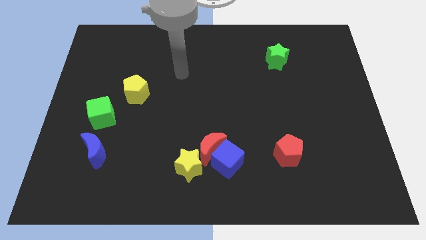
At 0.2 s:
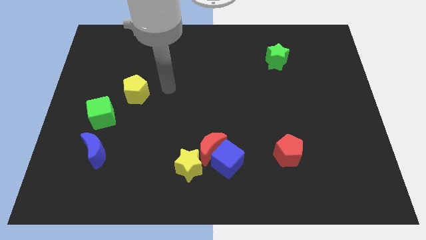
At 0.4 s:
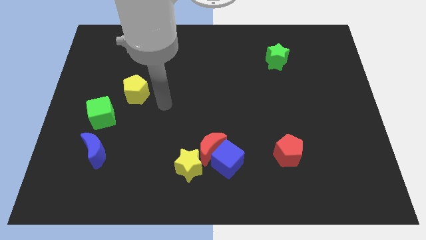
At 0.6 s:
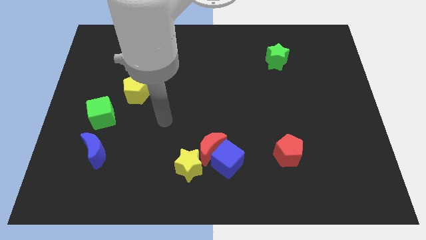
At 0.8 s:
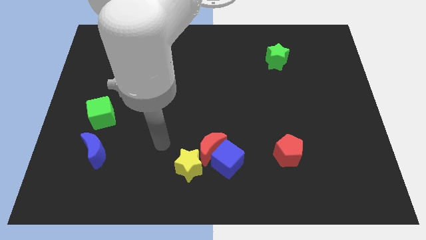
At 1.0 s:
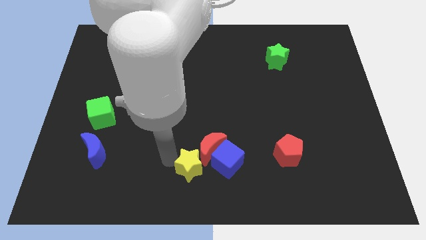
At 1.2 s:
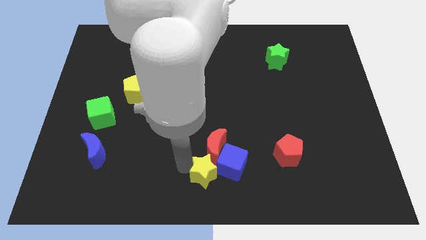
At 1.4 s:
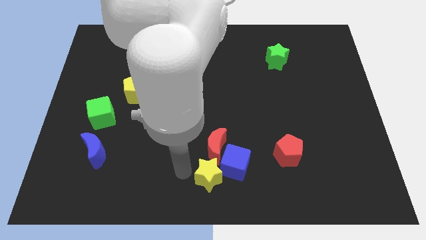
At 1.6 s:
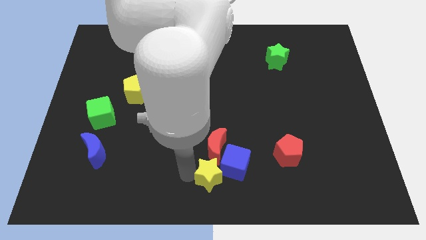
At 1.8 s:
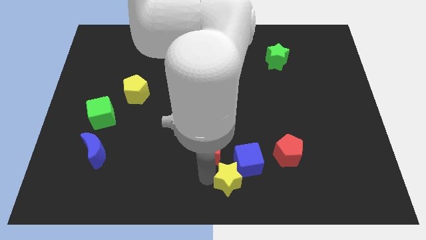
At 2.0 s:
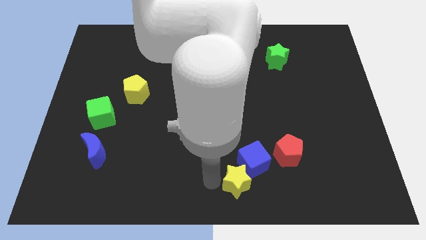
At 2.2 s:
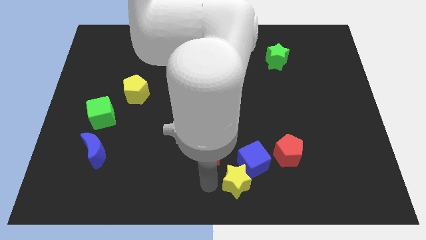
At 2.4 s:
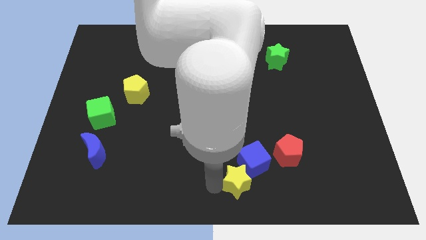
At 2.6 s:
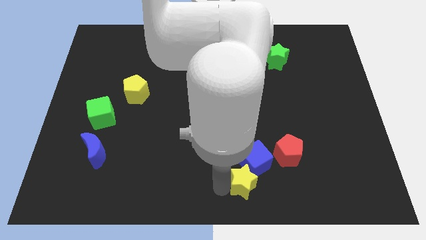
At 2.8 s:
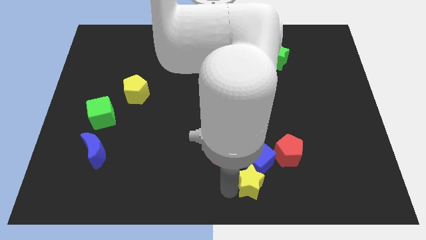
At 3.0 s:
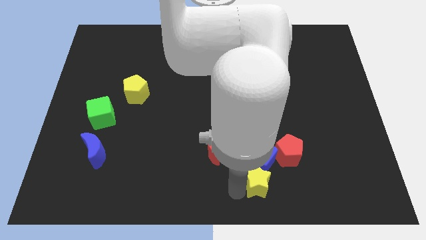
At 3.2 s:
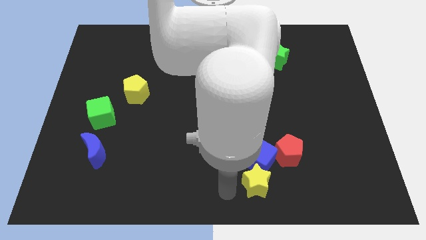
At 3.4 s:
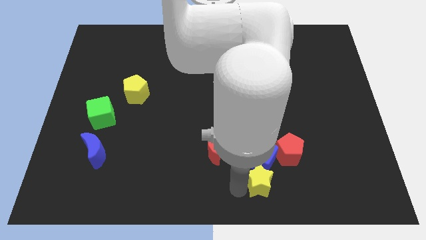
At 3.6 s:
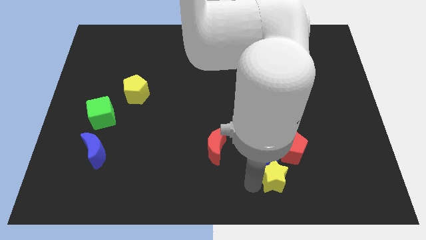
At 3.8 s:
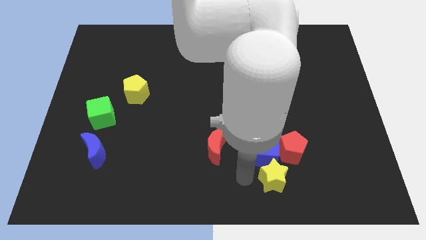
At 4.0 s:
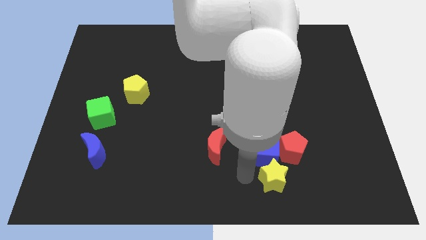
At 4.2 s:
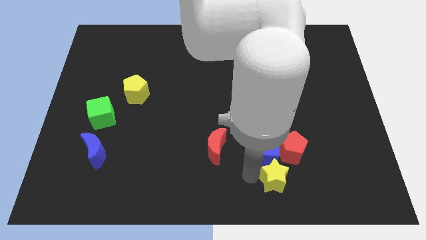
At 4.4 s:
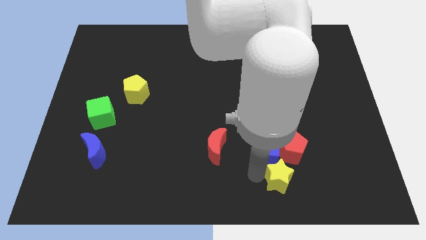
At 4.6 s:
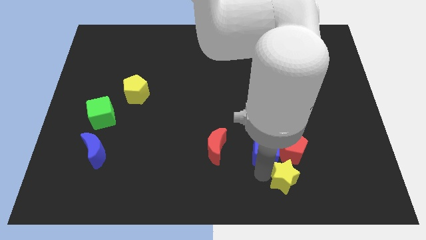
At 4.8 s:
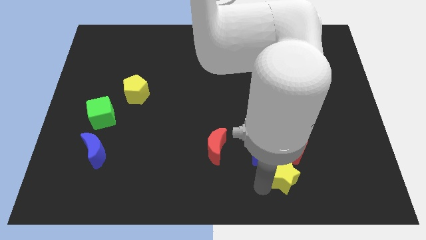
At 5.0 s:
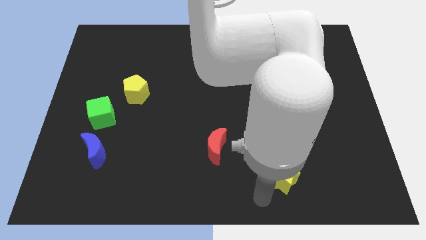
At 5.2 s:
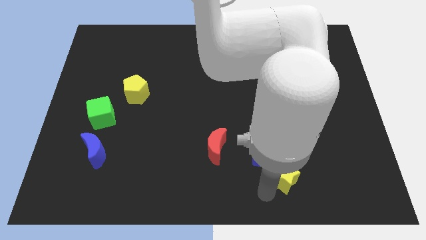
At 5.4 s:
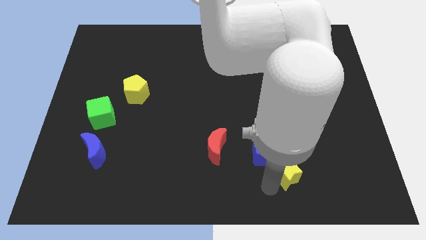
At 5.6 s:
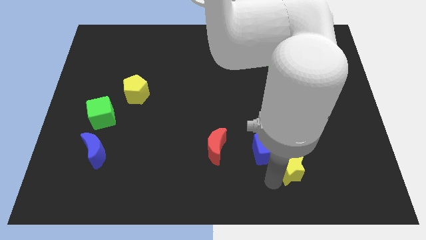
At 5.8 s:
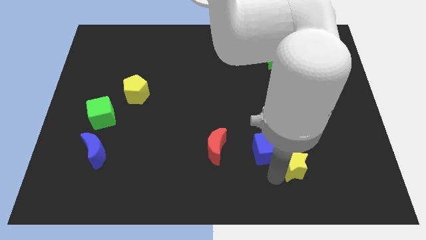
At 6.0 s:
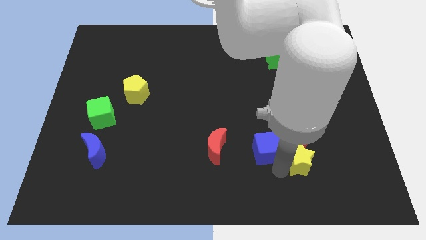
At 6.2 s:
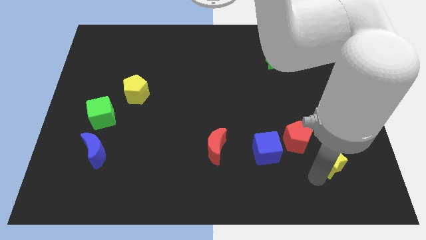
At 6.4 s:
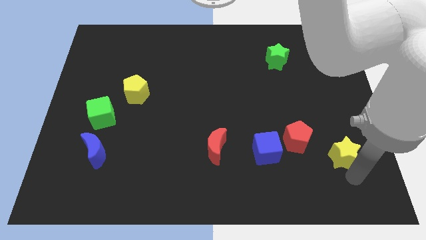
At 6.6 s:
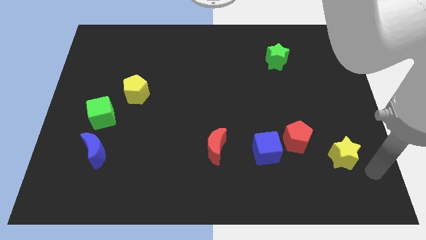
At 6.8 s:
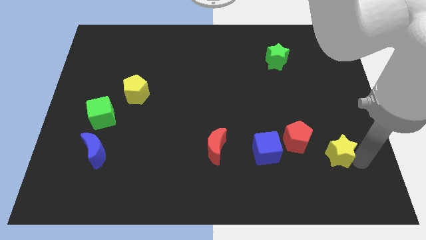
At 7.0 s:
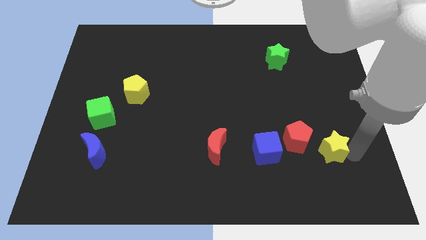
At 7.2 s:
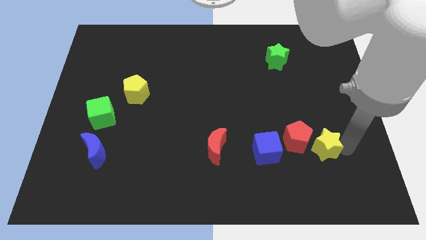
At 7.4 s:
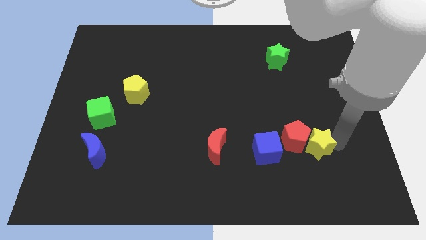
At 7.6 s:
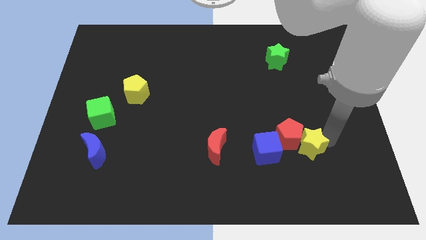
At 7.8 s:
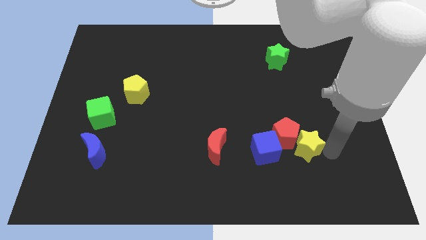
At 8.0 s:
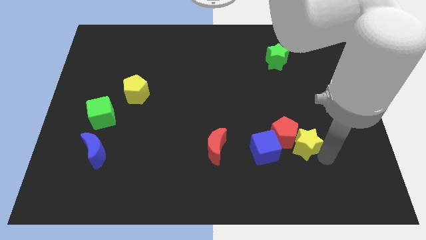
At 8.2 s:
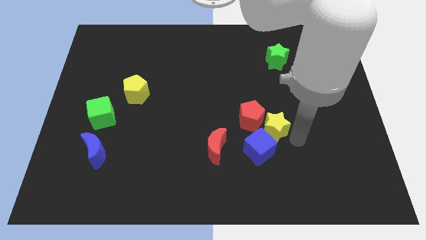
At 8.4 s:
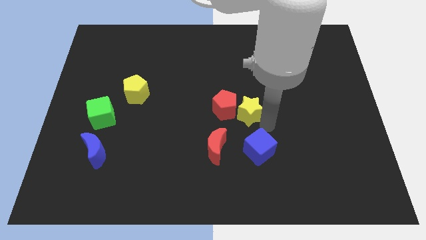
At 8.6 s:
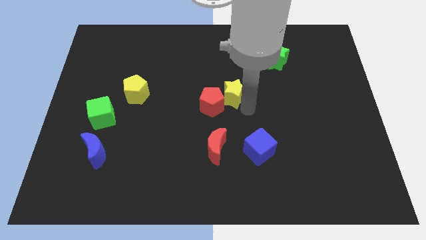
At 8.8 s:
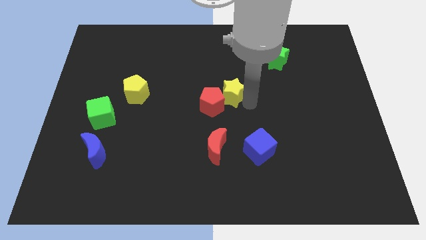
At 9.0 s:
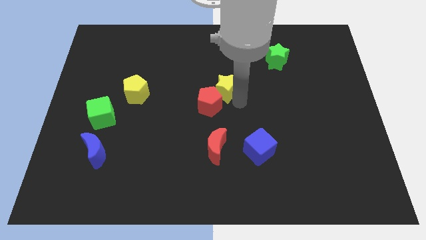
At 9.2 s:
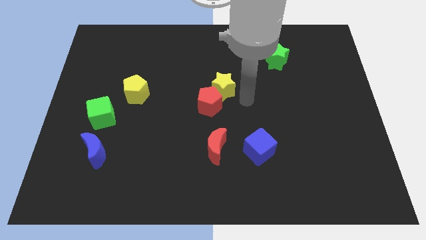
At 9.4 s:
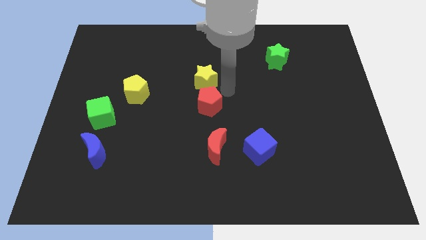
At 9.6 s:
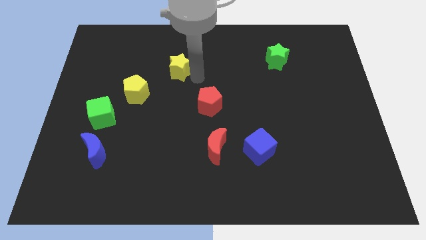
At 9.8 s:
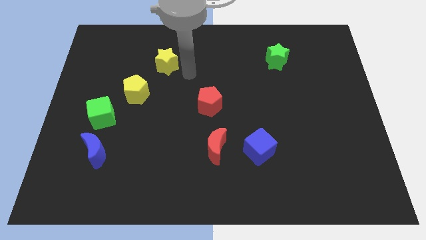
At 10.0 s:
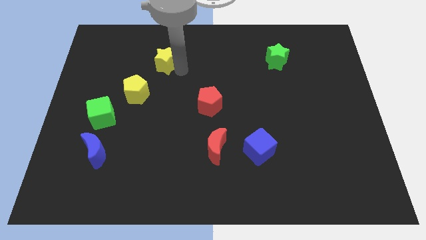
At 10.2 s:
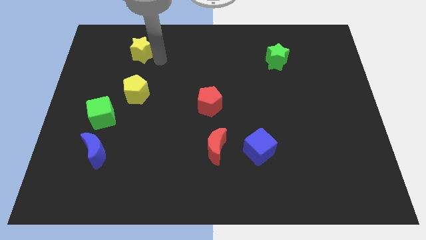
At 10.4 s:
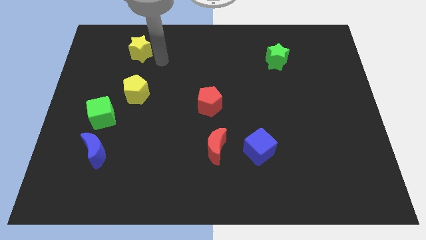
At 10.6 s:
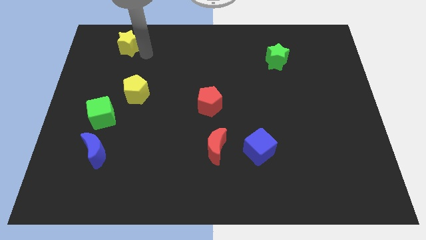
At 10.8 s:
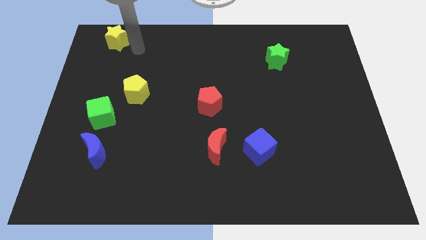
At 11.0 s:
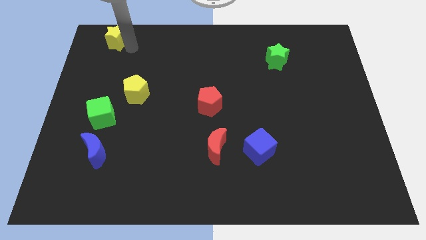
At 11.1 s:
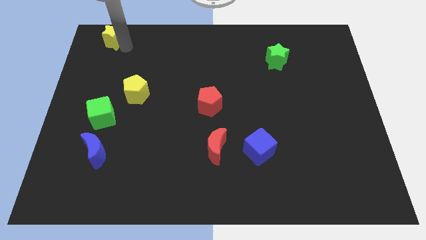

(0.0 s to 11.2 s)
move the yellow star to the upper left corner

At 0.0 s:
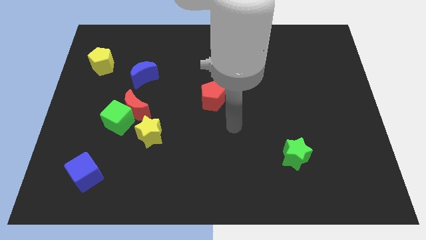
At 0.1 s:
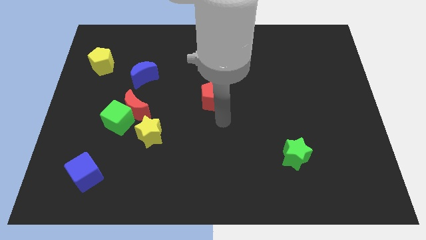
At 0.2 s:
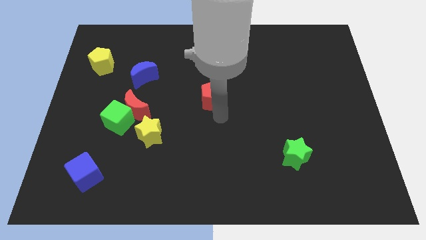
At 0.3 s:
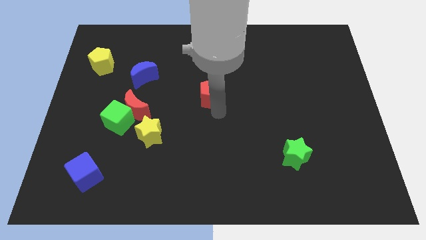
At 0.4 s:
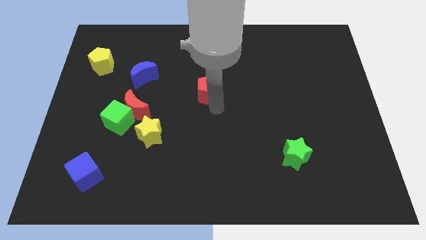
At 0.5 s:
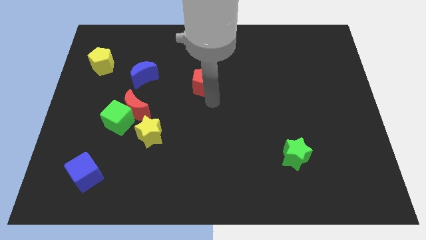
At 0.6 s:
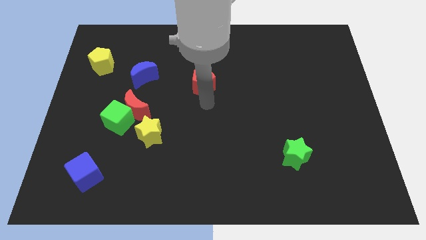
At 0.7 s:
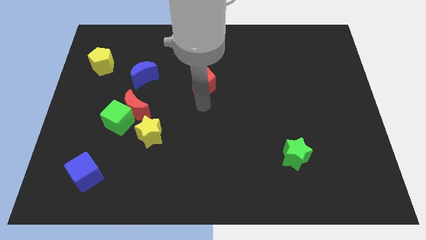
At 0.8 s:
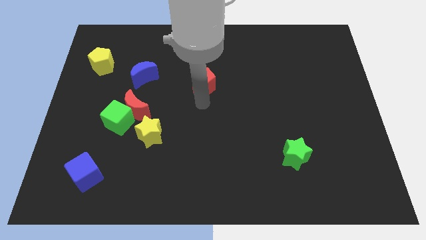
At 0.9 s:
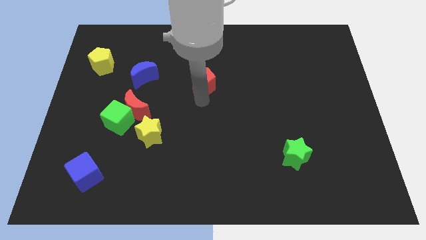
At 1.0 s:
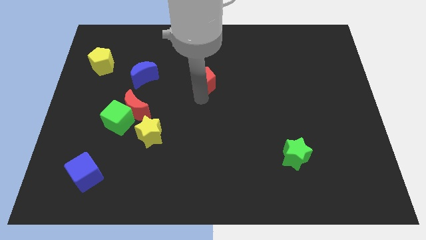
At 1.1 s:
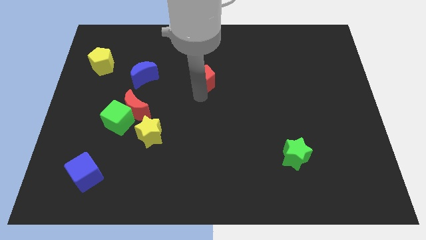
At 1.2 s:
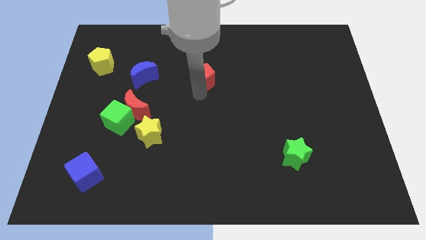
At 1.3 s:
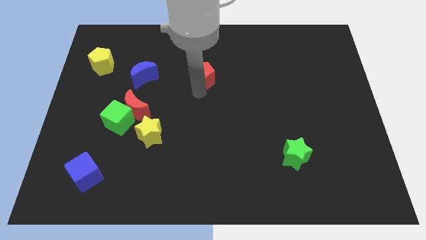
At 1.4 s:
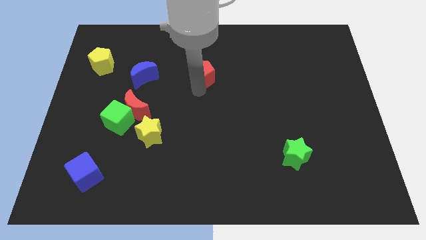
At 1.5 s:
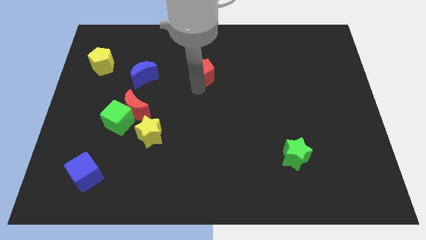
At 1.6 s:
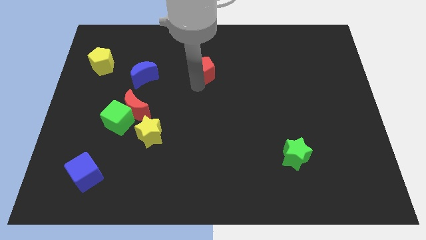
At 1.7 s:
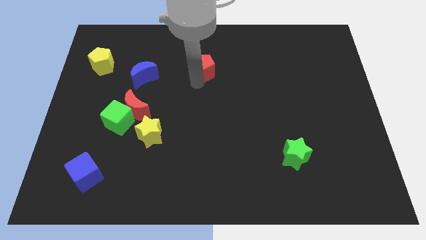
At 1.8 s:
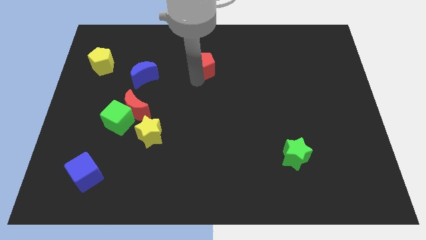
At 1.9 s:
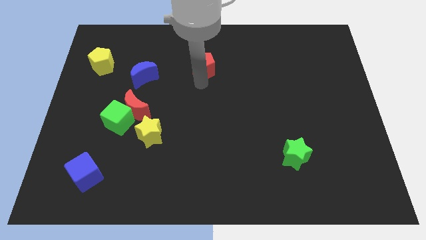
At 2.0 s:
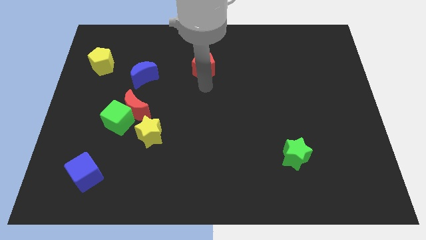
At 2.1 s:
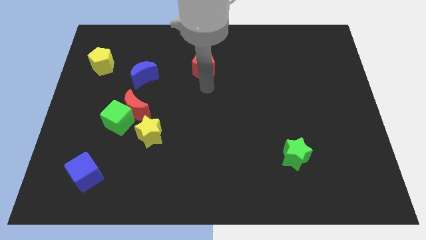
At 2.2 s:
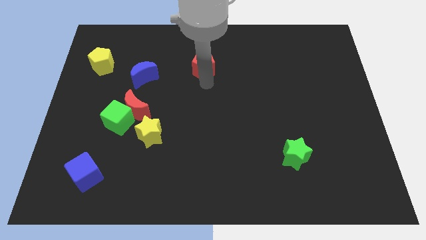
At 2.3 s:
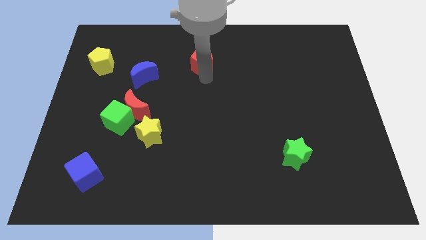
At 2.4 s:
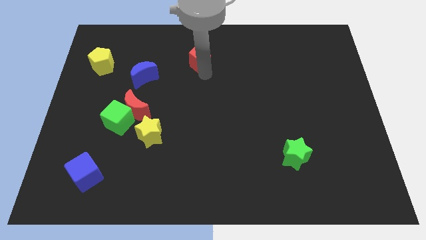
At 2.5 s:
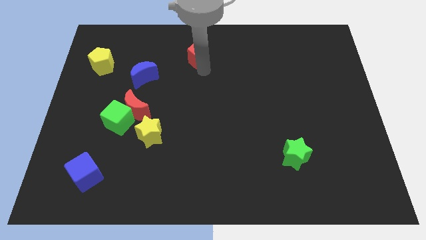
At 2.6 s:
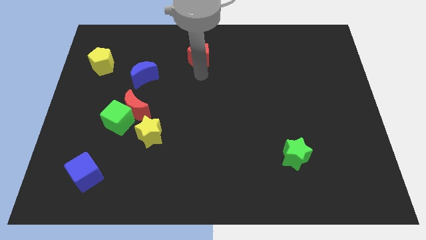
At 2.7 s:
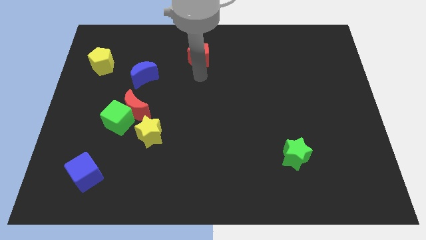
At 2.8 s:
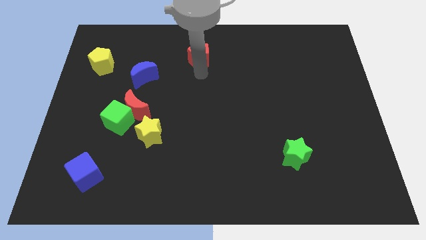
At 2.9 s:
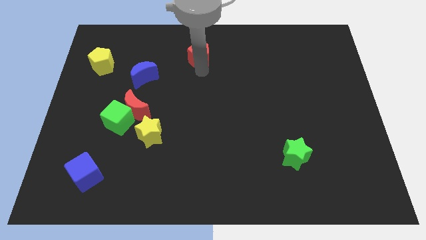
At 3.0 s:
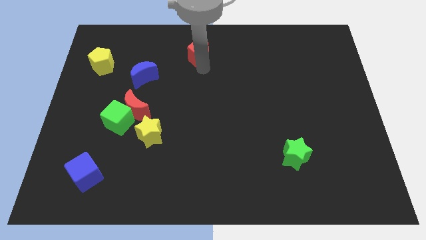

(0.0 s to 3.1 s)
push the red pentagon to the top side
